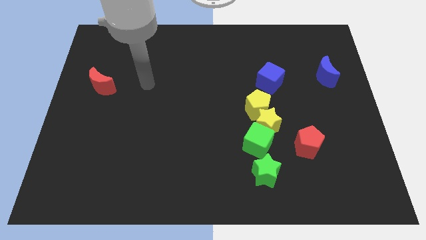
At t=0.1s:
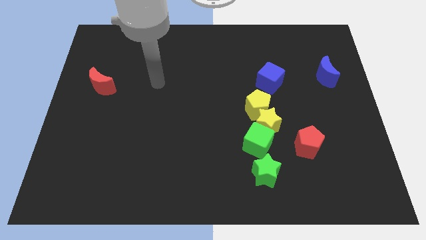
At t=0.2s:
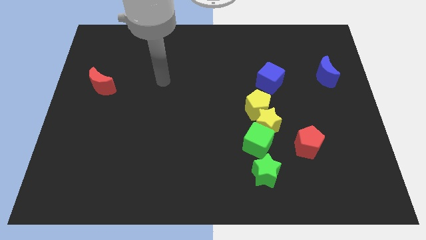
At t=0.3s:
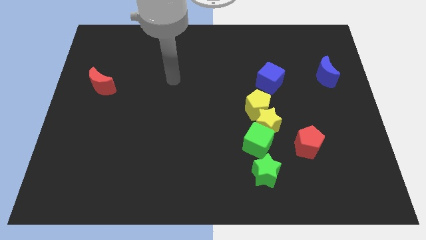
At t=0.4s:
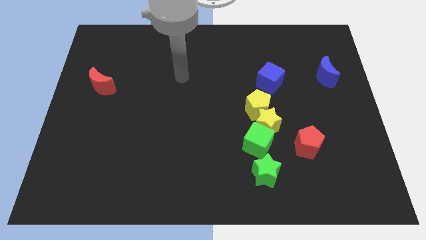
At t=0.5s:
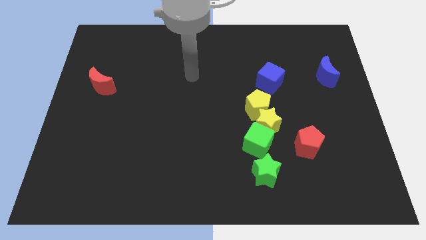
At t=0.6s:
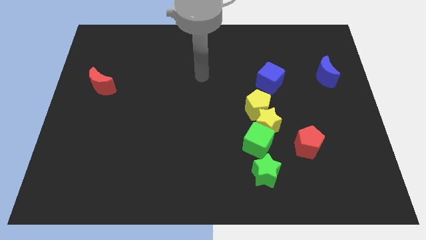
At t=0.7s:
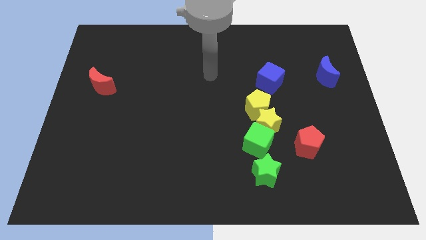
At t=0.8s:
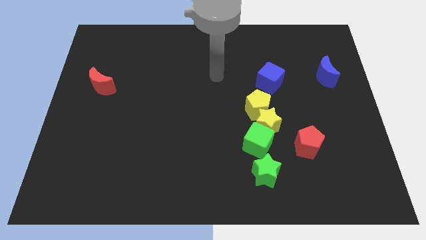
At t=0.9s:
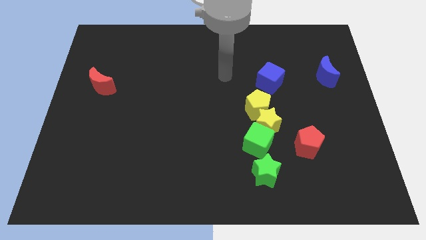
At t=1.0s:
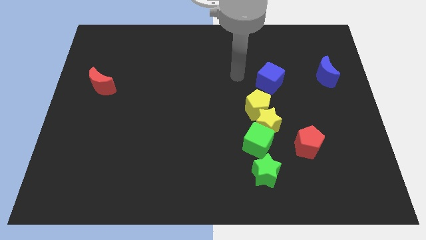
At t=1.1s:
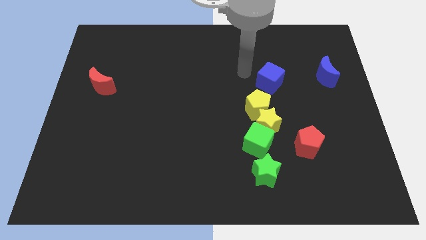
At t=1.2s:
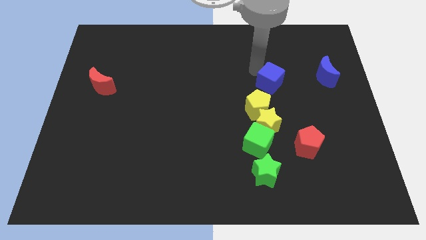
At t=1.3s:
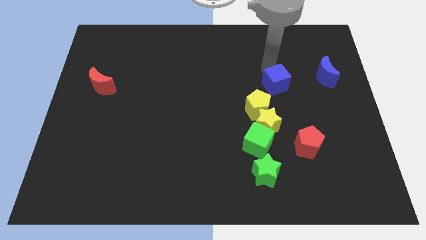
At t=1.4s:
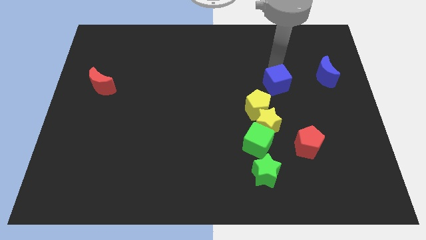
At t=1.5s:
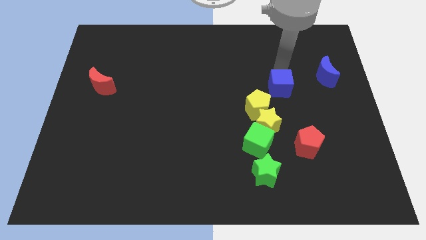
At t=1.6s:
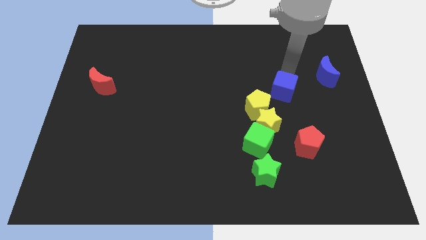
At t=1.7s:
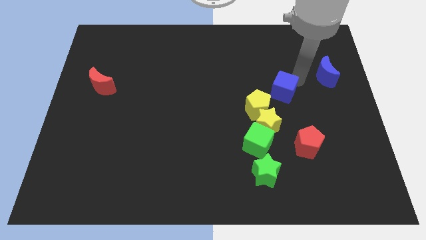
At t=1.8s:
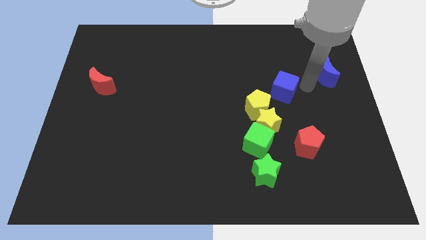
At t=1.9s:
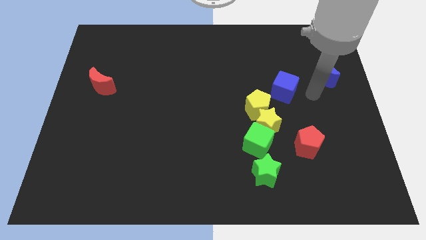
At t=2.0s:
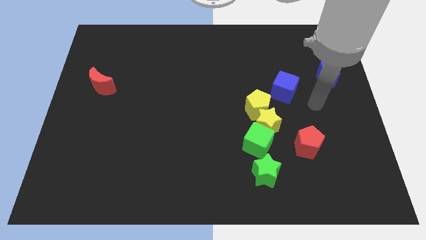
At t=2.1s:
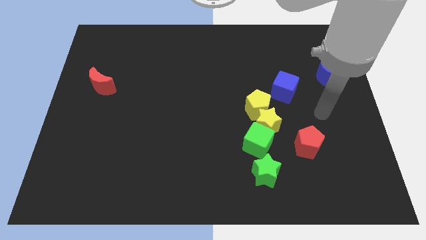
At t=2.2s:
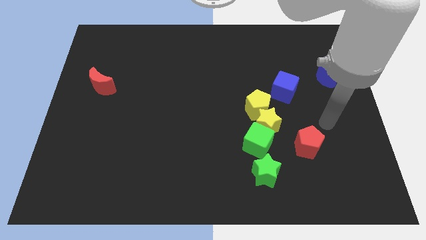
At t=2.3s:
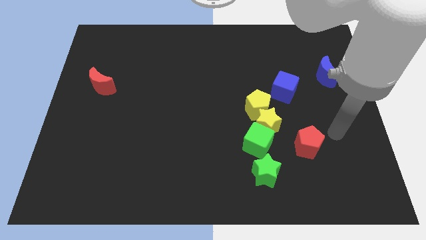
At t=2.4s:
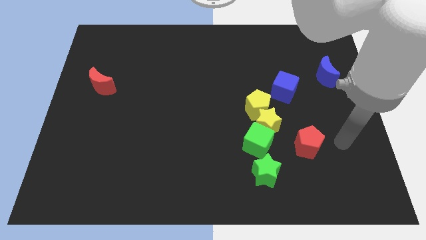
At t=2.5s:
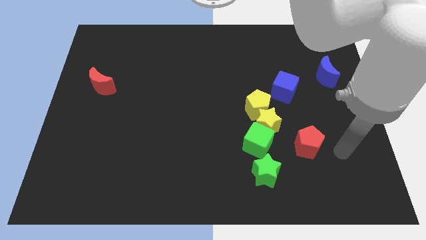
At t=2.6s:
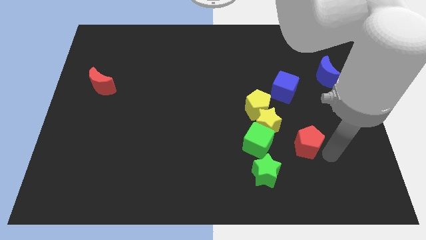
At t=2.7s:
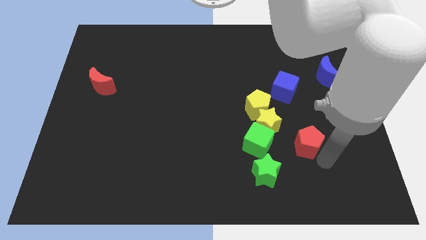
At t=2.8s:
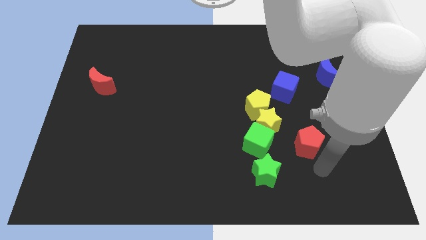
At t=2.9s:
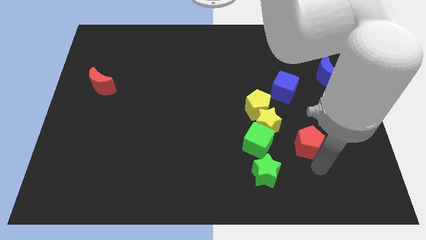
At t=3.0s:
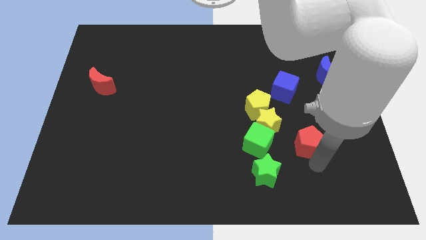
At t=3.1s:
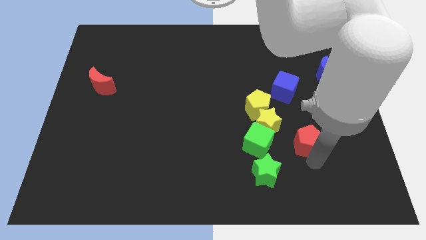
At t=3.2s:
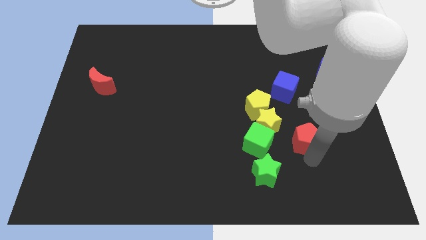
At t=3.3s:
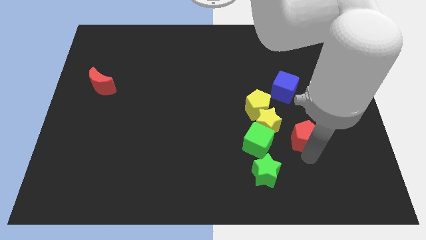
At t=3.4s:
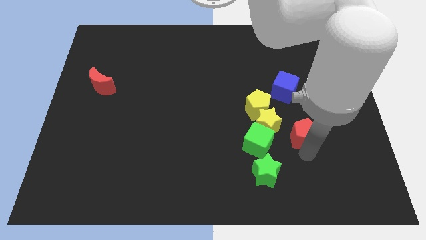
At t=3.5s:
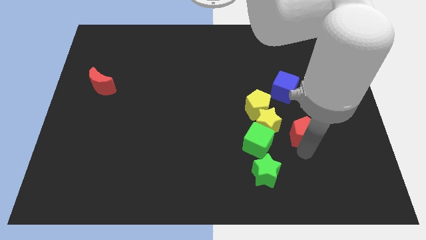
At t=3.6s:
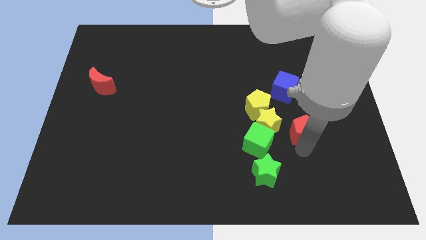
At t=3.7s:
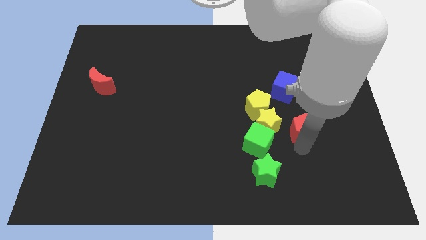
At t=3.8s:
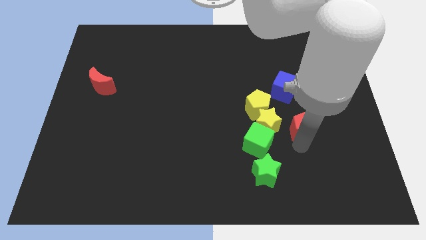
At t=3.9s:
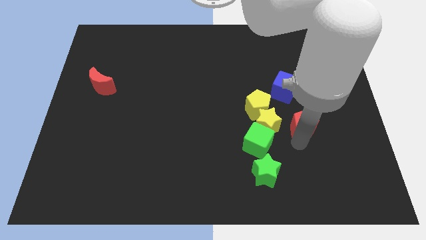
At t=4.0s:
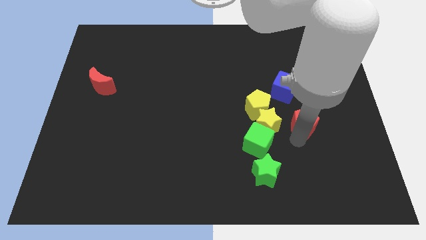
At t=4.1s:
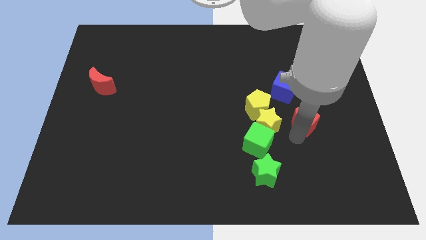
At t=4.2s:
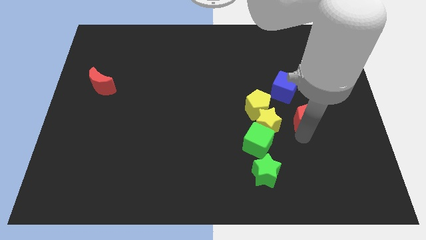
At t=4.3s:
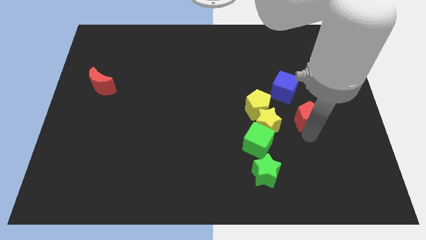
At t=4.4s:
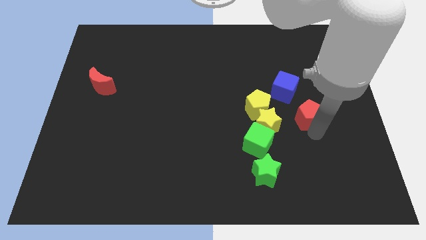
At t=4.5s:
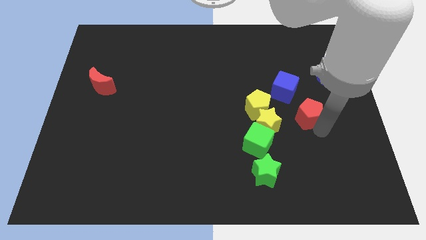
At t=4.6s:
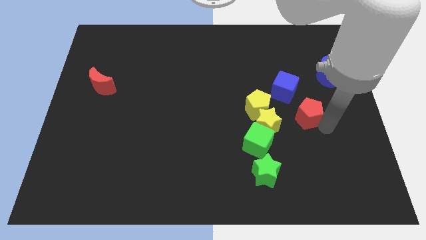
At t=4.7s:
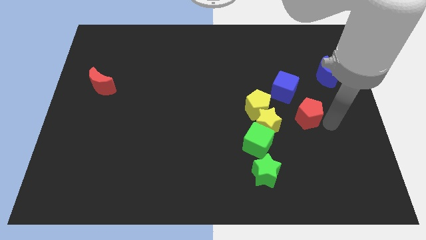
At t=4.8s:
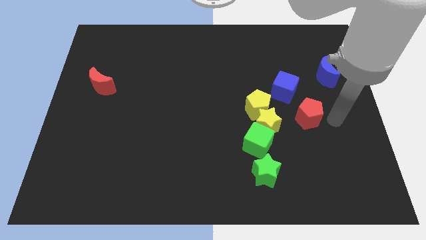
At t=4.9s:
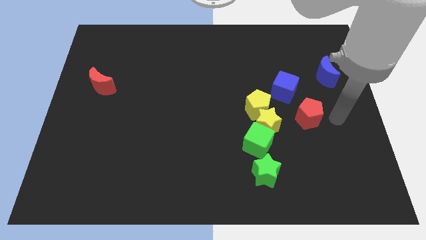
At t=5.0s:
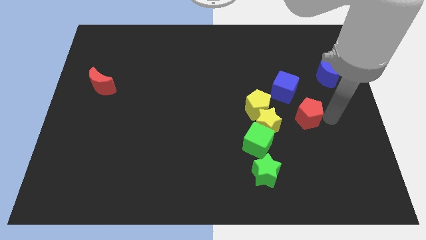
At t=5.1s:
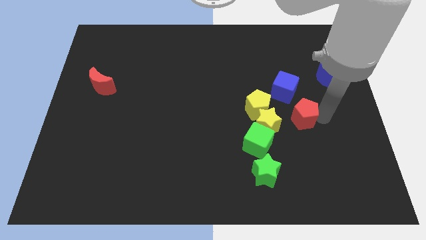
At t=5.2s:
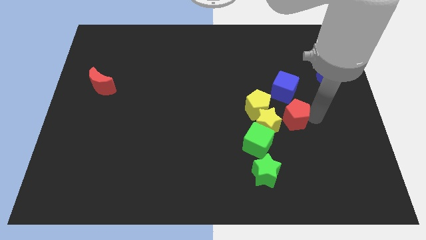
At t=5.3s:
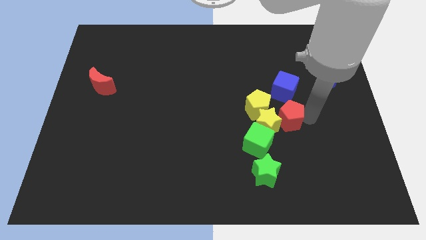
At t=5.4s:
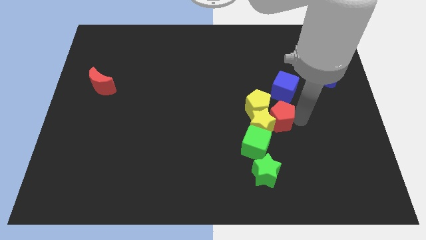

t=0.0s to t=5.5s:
put the red pentagon towards the yellow pentagon

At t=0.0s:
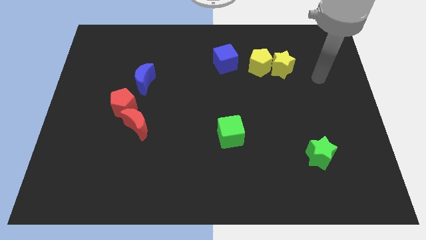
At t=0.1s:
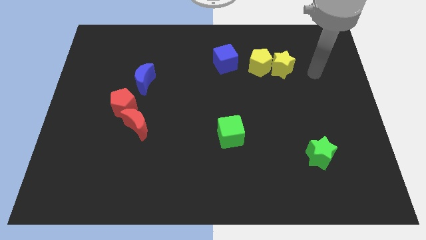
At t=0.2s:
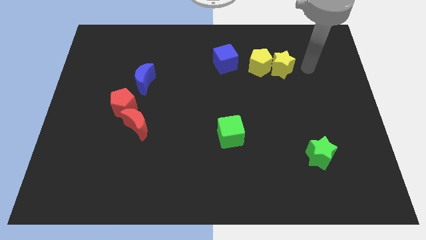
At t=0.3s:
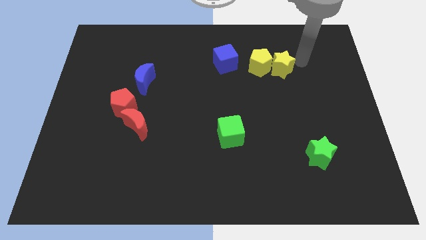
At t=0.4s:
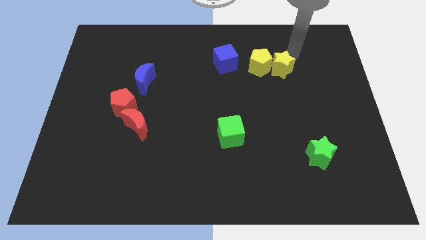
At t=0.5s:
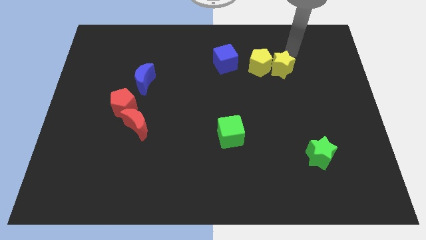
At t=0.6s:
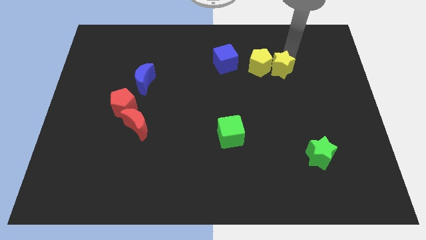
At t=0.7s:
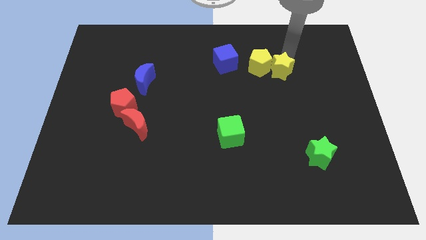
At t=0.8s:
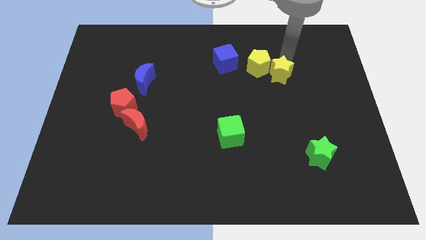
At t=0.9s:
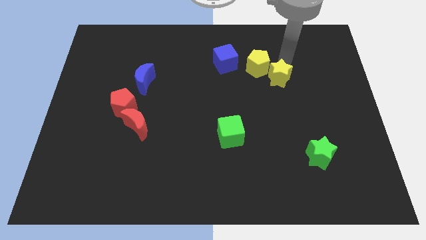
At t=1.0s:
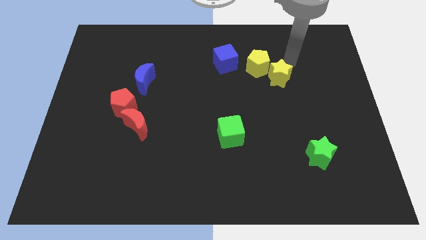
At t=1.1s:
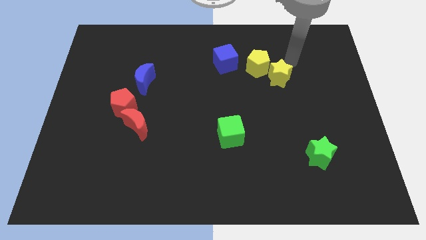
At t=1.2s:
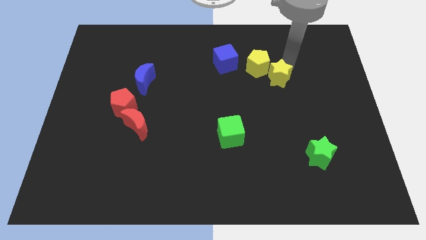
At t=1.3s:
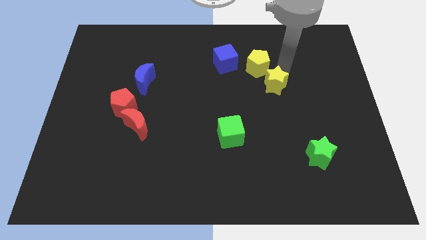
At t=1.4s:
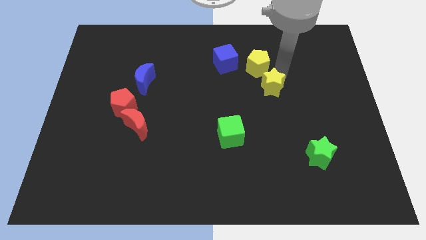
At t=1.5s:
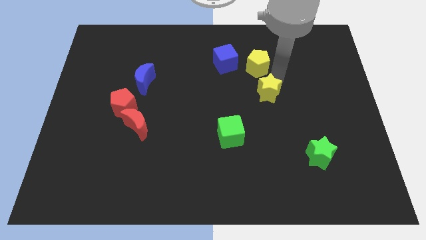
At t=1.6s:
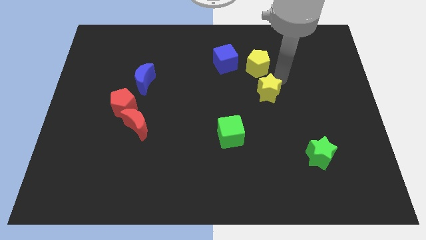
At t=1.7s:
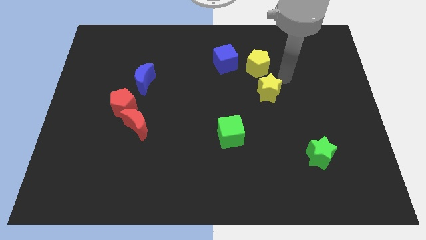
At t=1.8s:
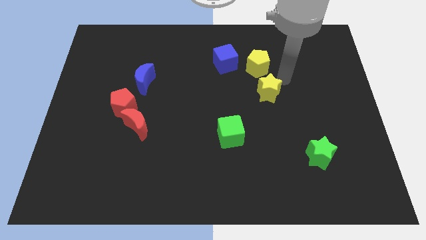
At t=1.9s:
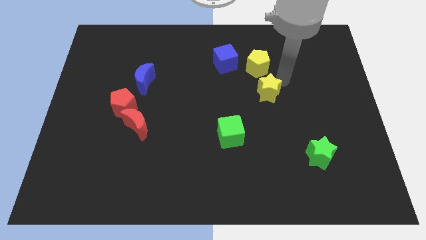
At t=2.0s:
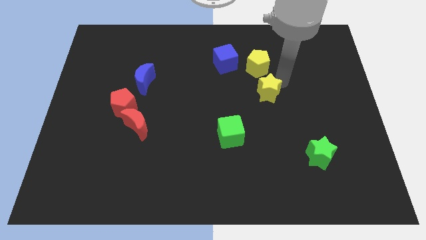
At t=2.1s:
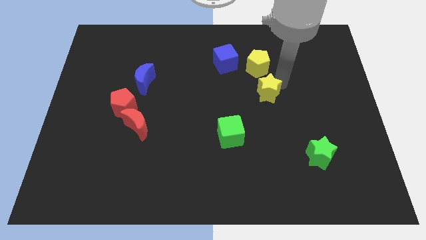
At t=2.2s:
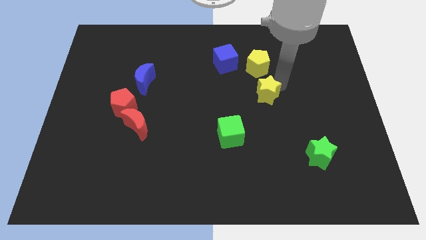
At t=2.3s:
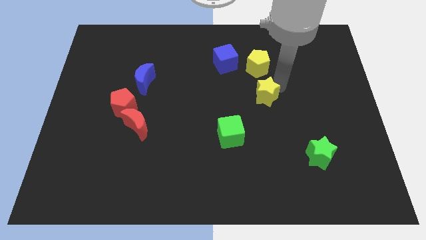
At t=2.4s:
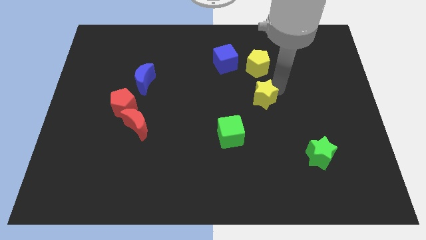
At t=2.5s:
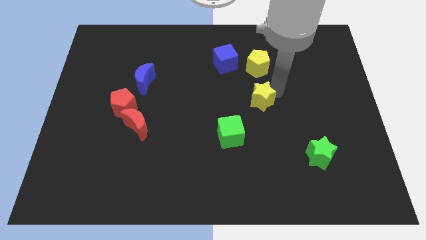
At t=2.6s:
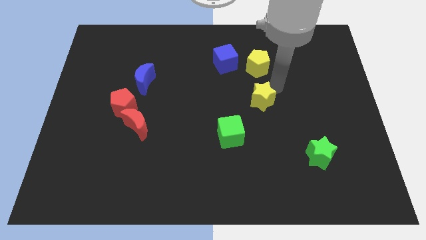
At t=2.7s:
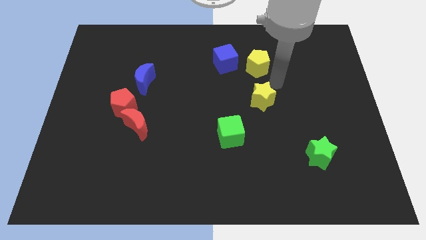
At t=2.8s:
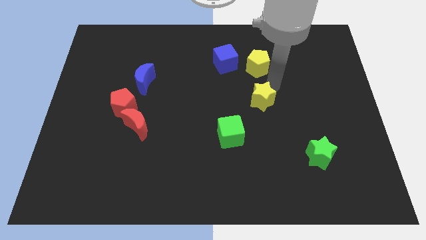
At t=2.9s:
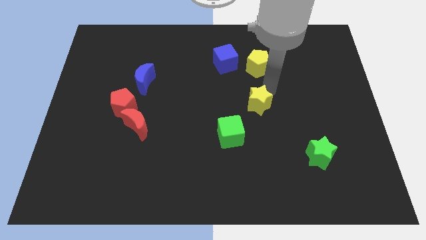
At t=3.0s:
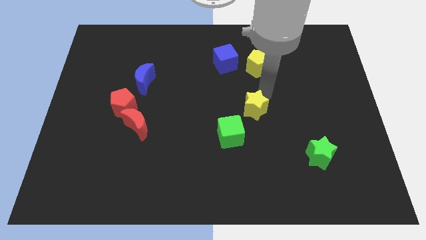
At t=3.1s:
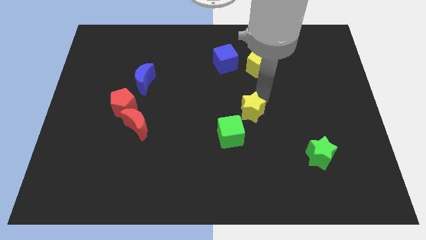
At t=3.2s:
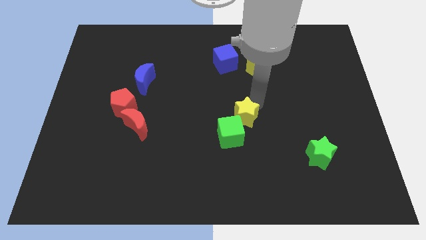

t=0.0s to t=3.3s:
put the yellow star next to the green cube
